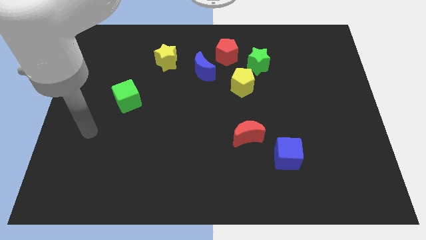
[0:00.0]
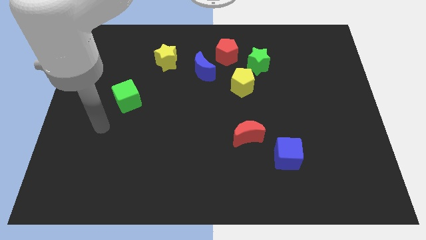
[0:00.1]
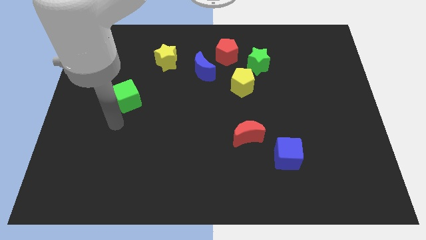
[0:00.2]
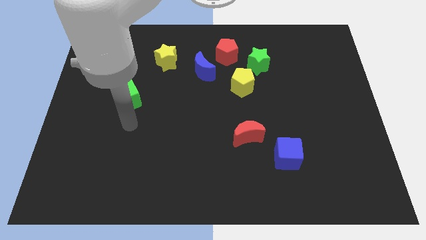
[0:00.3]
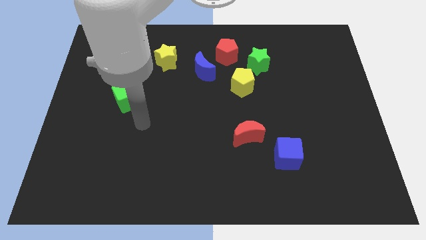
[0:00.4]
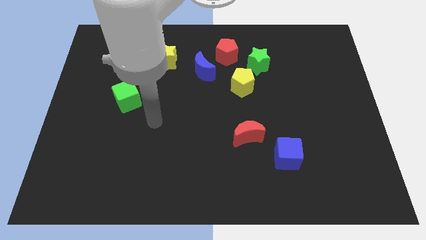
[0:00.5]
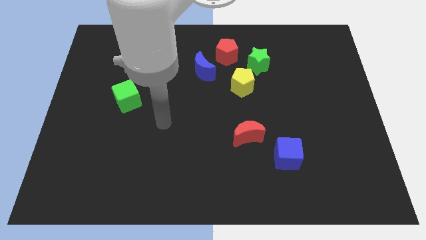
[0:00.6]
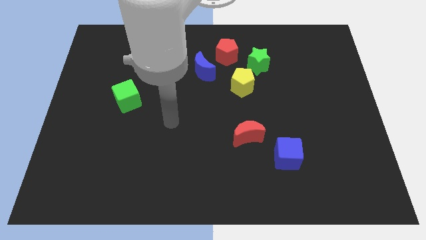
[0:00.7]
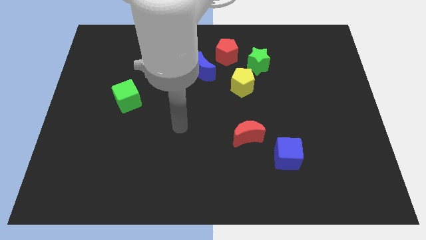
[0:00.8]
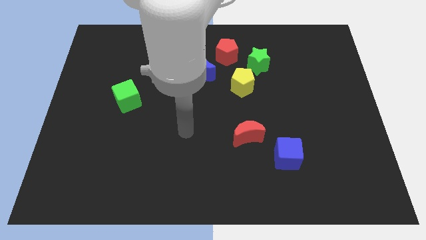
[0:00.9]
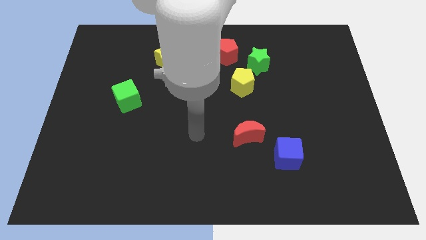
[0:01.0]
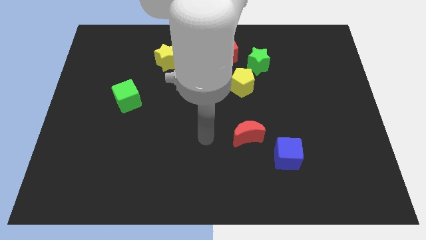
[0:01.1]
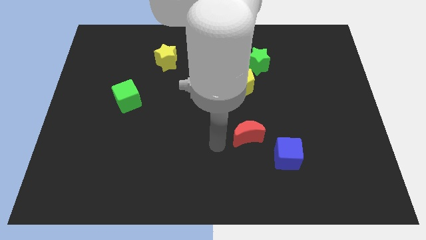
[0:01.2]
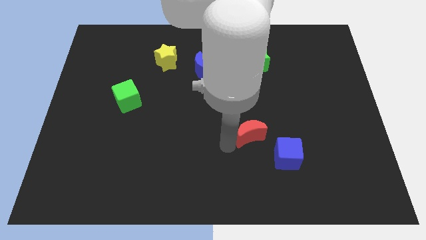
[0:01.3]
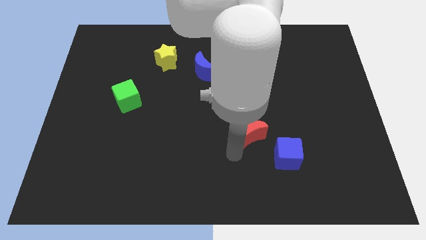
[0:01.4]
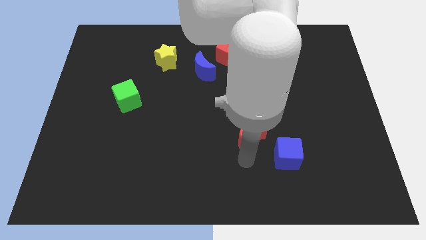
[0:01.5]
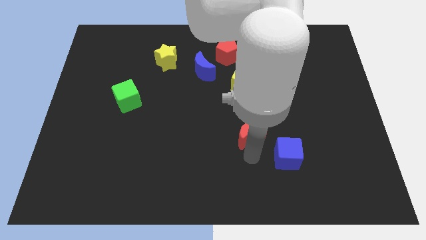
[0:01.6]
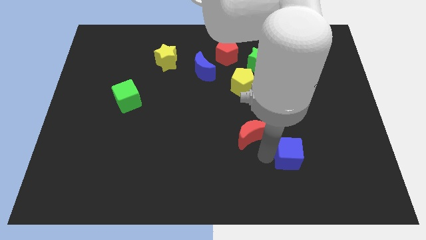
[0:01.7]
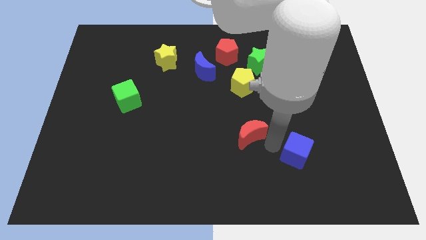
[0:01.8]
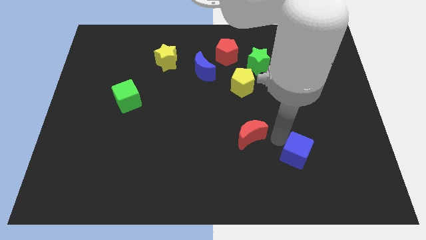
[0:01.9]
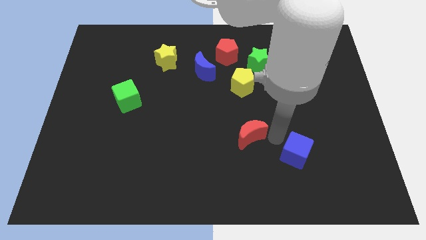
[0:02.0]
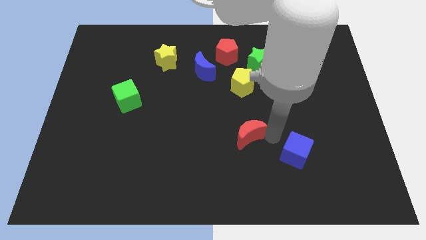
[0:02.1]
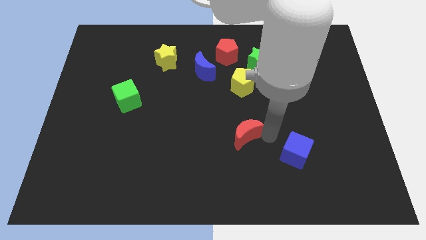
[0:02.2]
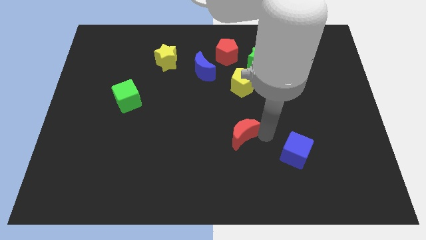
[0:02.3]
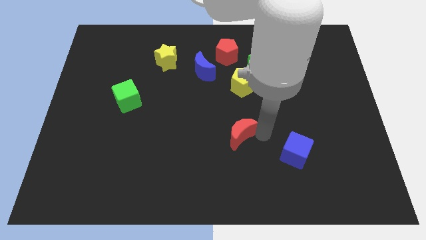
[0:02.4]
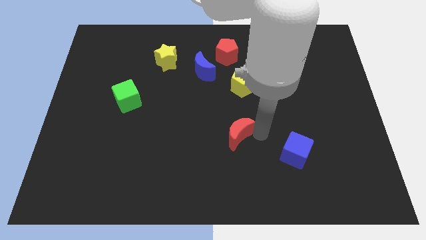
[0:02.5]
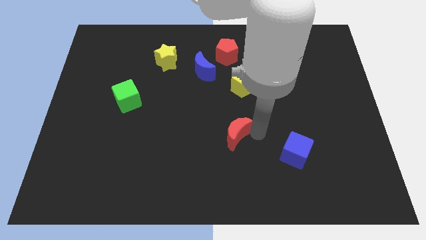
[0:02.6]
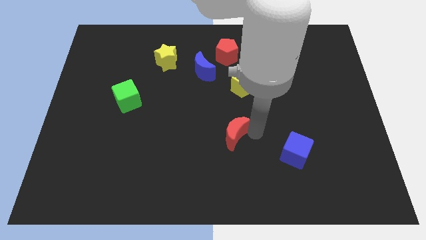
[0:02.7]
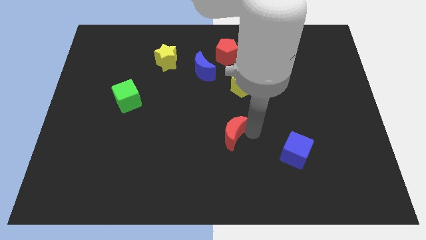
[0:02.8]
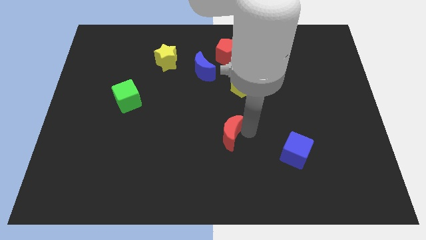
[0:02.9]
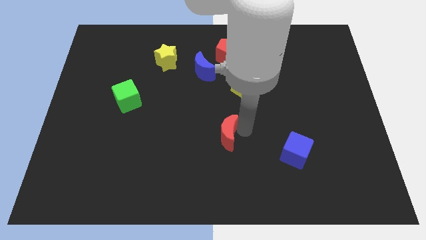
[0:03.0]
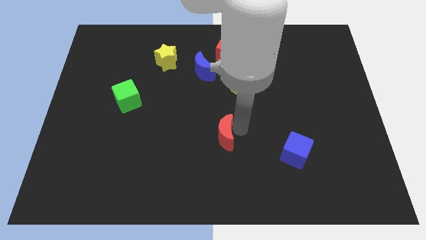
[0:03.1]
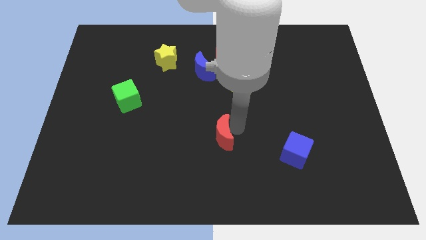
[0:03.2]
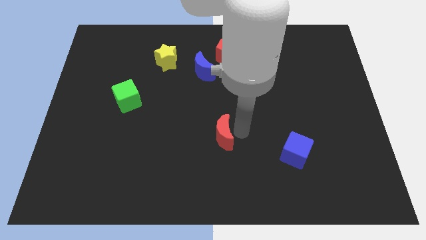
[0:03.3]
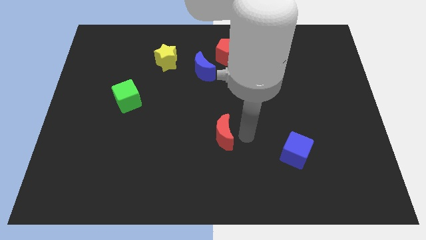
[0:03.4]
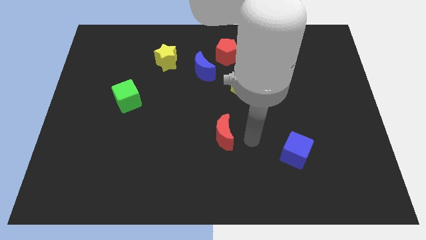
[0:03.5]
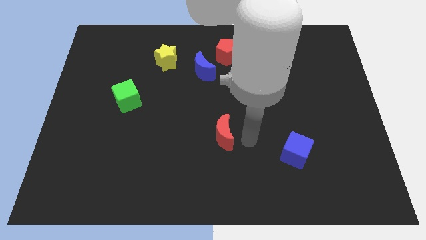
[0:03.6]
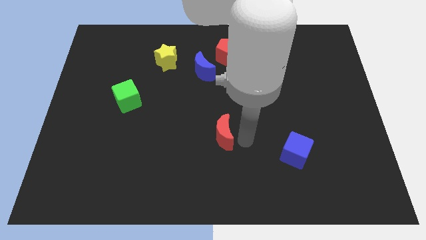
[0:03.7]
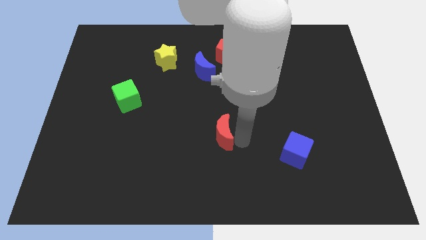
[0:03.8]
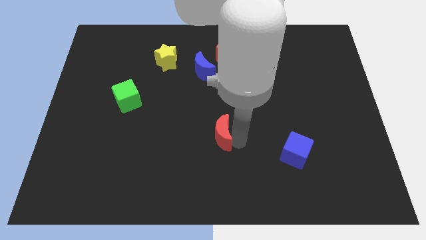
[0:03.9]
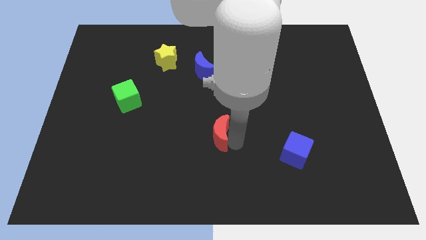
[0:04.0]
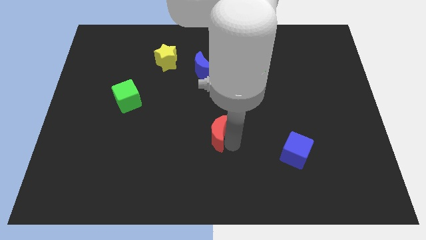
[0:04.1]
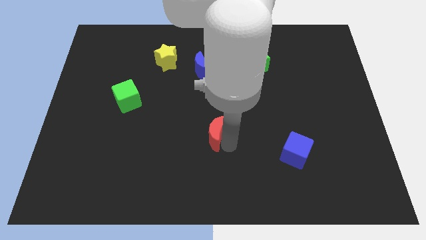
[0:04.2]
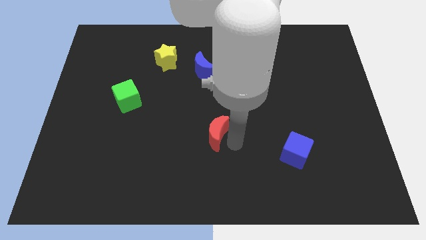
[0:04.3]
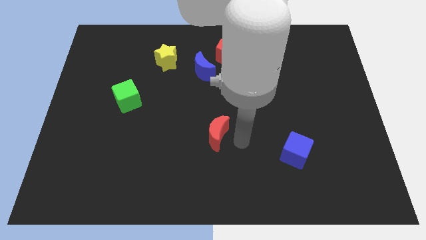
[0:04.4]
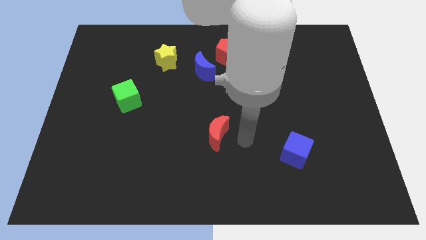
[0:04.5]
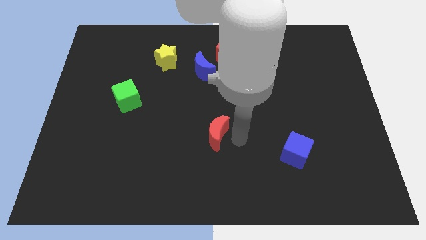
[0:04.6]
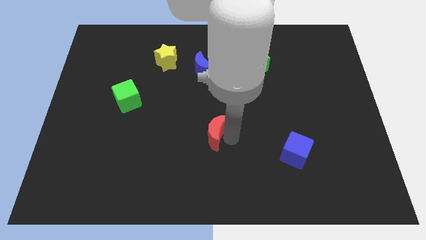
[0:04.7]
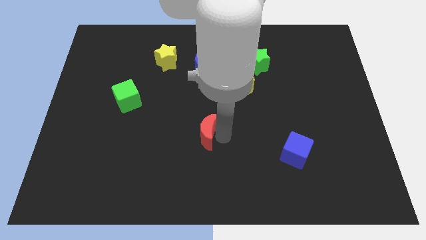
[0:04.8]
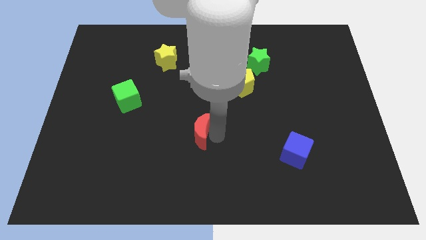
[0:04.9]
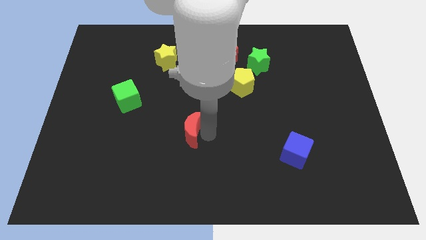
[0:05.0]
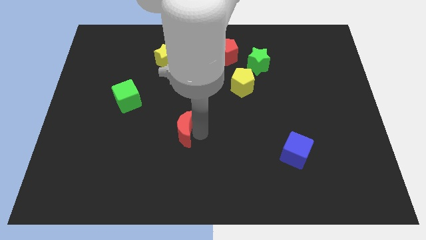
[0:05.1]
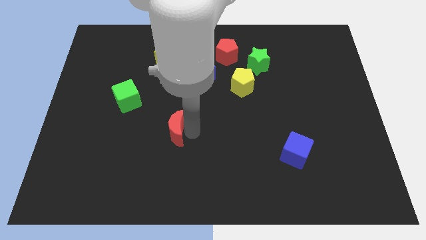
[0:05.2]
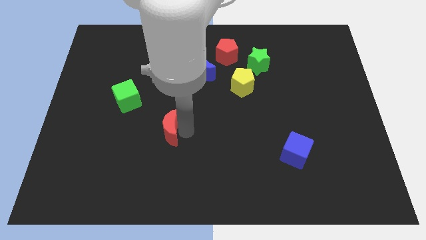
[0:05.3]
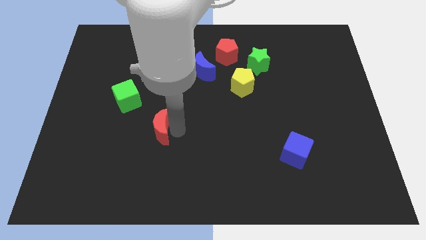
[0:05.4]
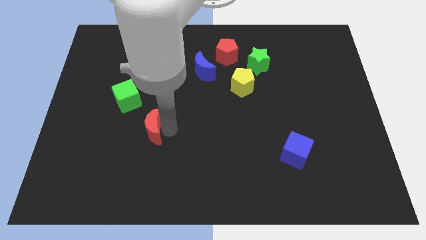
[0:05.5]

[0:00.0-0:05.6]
push the red moon left

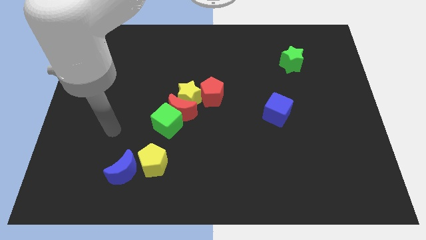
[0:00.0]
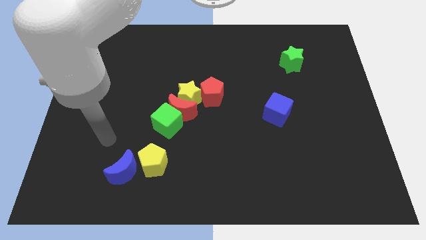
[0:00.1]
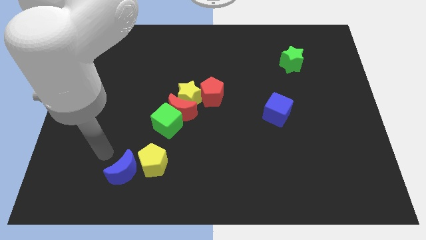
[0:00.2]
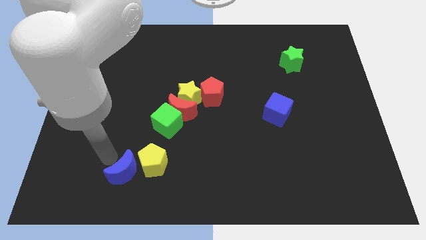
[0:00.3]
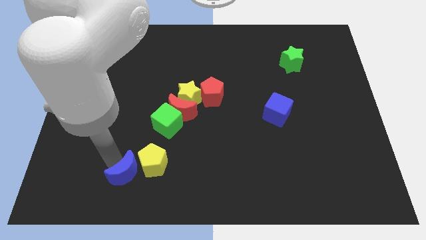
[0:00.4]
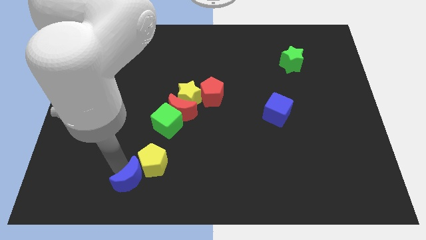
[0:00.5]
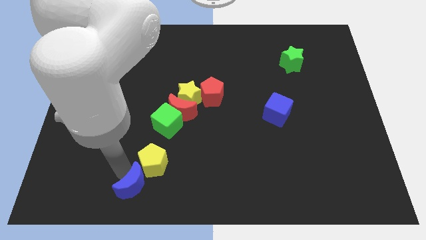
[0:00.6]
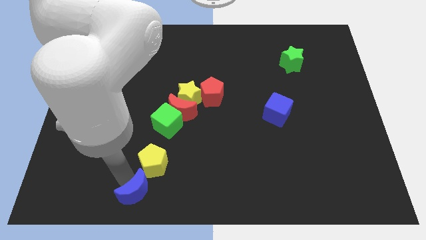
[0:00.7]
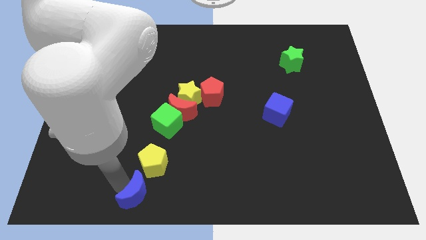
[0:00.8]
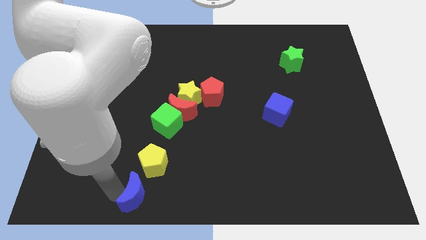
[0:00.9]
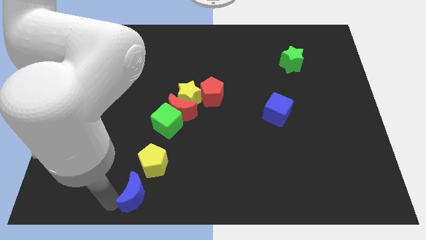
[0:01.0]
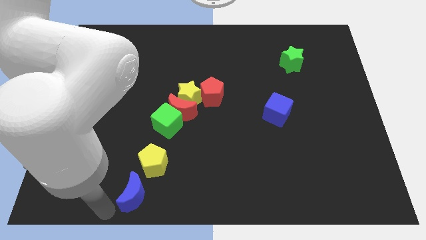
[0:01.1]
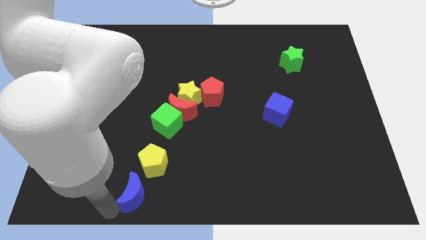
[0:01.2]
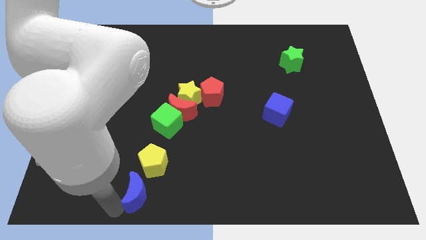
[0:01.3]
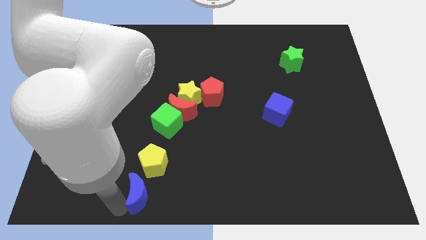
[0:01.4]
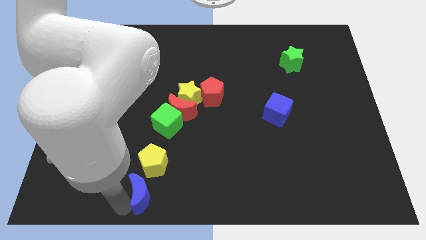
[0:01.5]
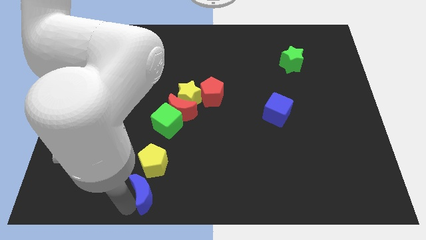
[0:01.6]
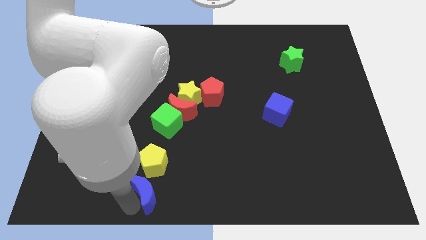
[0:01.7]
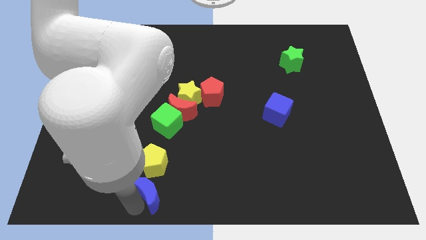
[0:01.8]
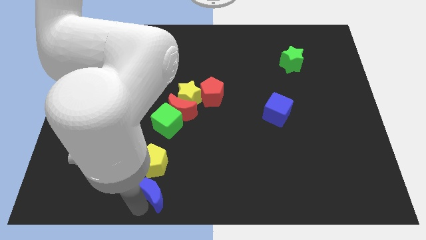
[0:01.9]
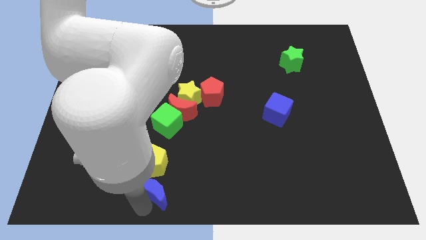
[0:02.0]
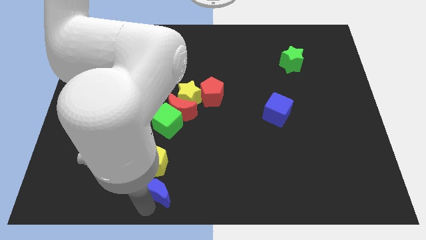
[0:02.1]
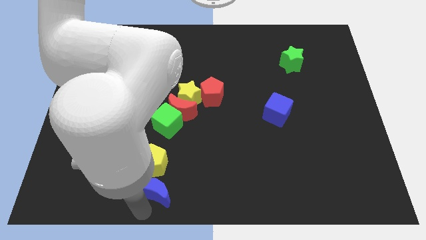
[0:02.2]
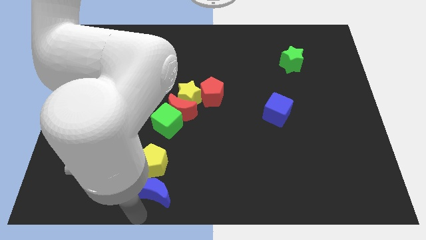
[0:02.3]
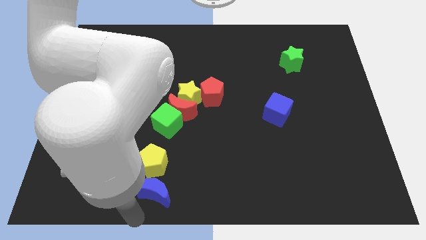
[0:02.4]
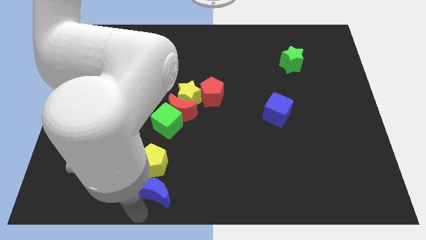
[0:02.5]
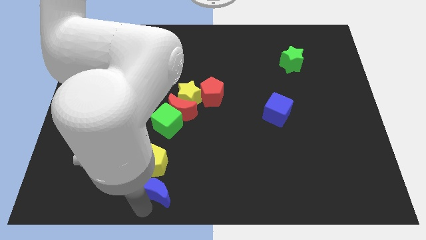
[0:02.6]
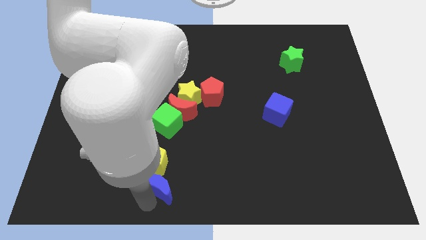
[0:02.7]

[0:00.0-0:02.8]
move the blue moon to the right a bit
